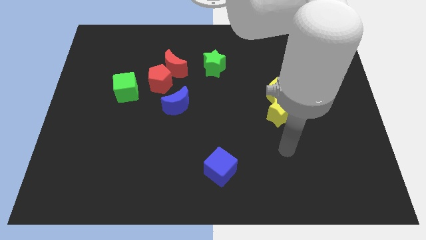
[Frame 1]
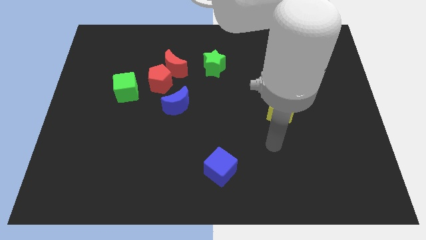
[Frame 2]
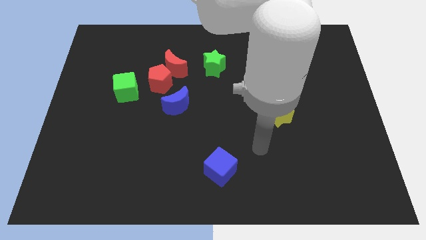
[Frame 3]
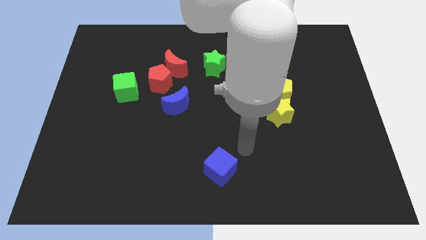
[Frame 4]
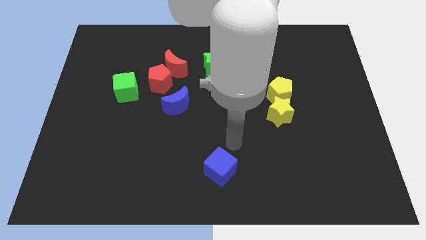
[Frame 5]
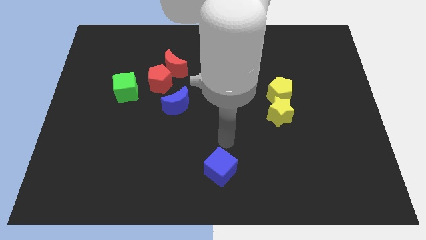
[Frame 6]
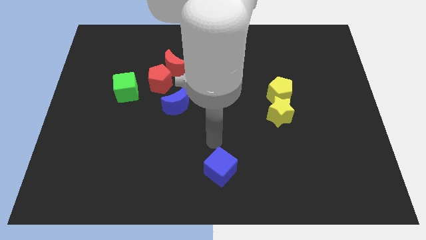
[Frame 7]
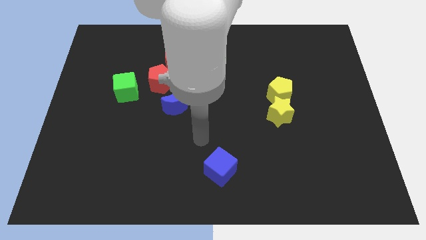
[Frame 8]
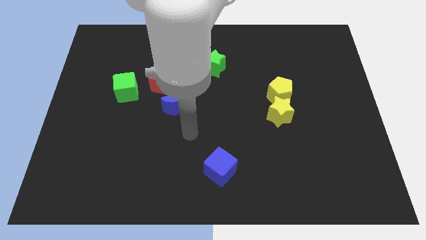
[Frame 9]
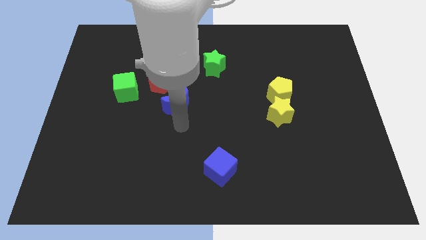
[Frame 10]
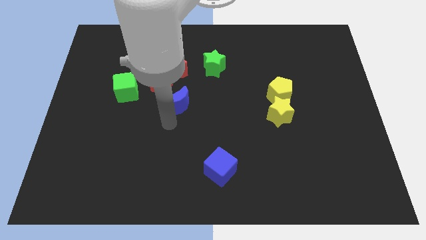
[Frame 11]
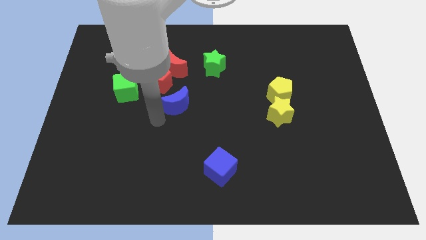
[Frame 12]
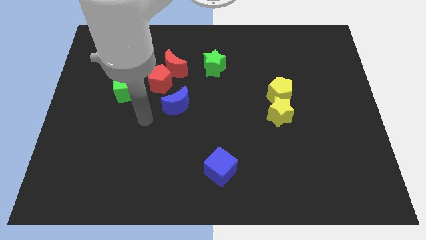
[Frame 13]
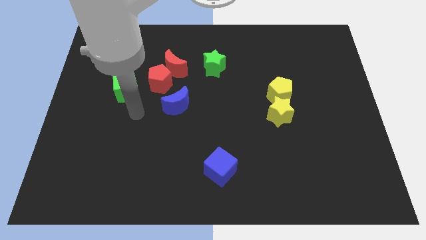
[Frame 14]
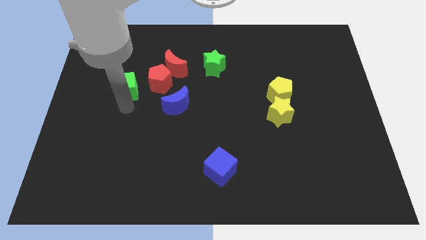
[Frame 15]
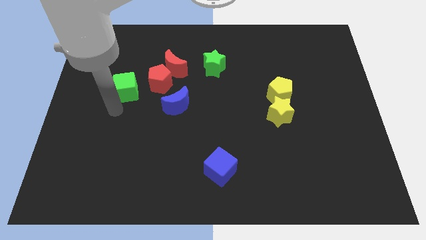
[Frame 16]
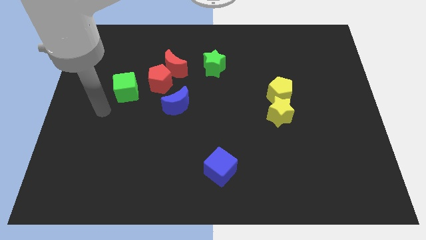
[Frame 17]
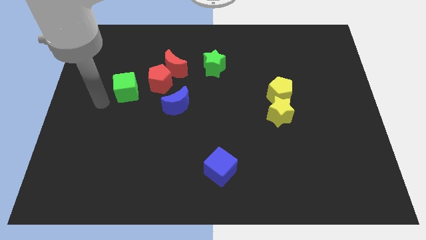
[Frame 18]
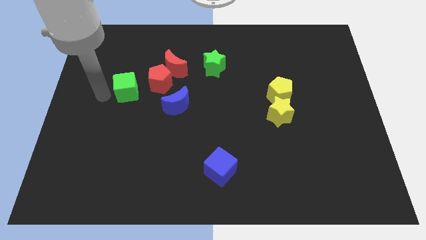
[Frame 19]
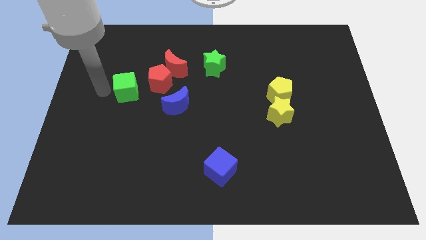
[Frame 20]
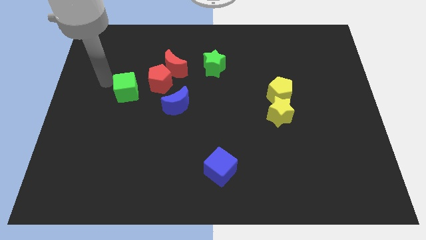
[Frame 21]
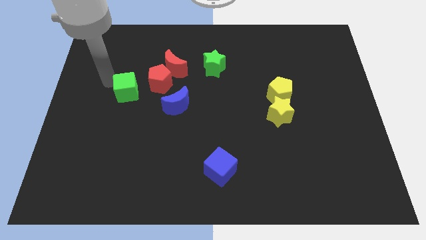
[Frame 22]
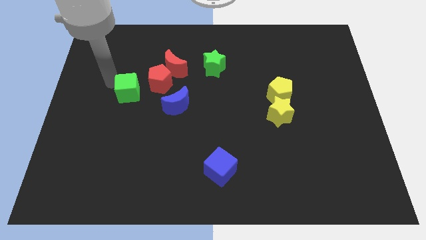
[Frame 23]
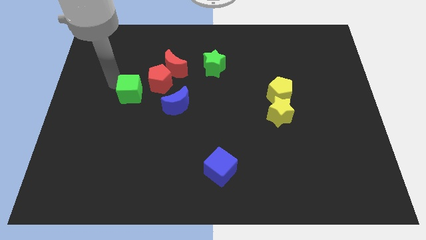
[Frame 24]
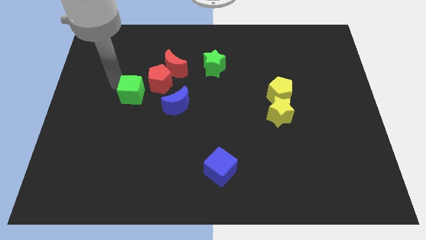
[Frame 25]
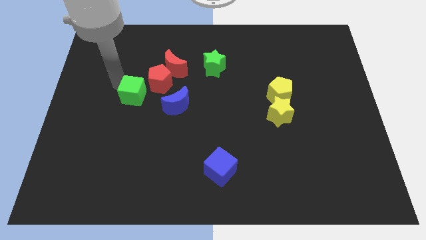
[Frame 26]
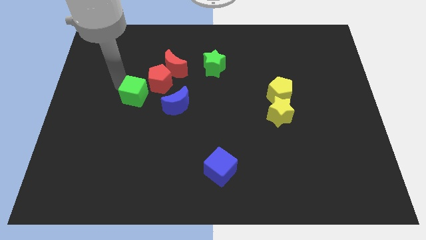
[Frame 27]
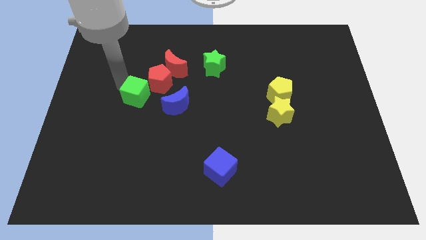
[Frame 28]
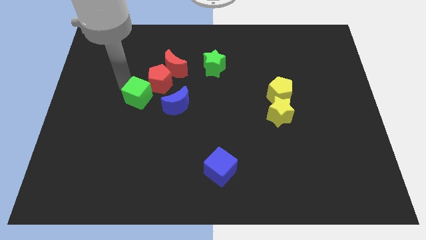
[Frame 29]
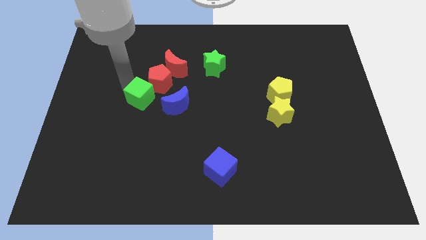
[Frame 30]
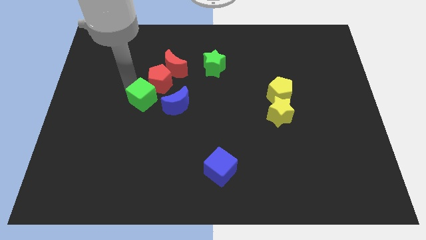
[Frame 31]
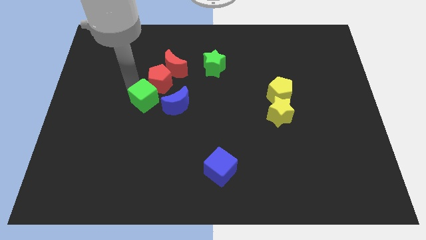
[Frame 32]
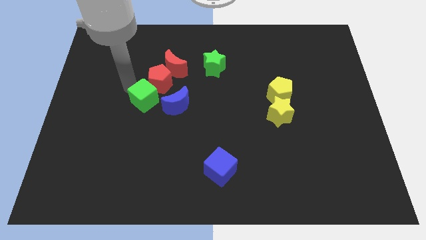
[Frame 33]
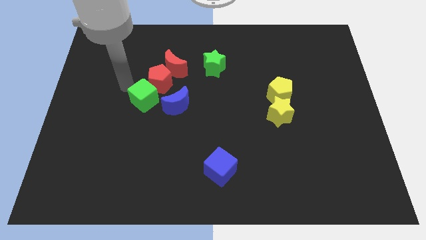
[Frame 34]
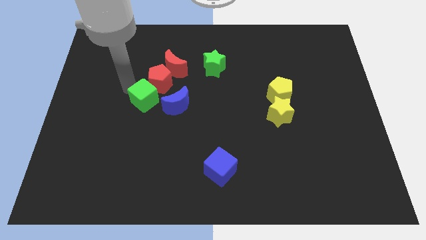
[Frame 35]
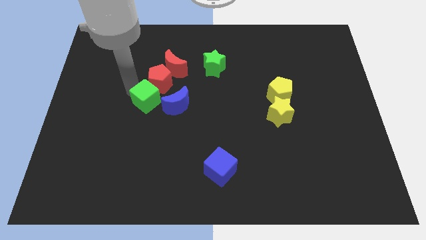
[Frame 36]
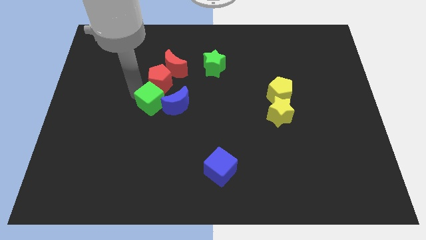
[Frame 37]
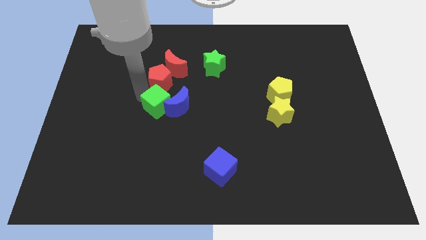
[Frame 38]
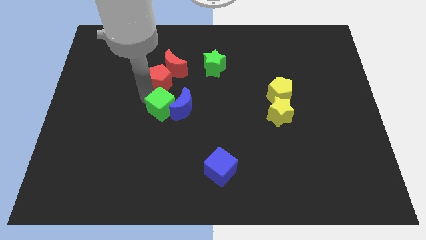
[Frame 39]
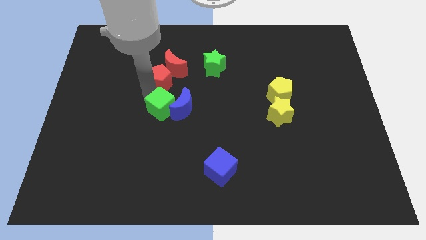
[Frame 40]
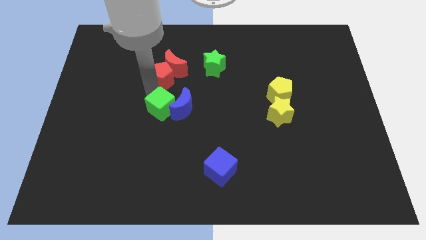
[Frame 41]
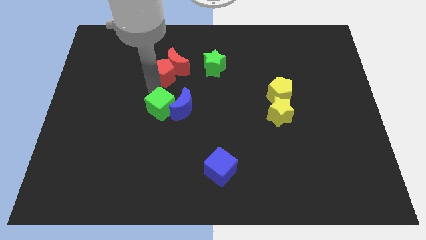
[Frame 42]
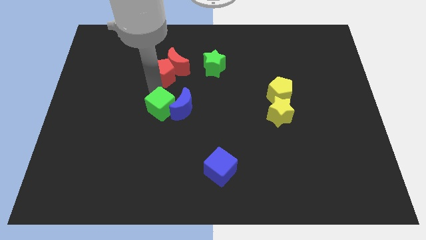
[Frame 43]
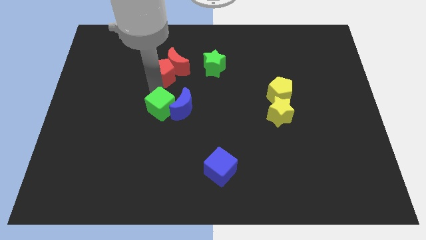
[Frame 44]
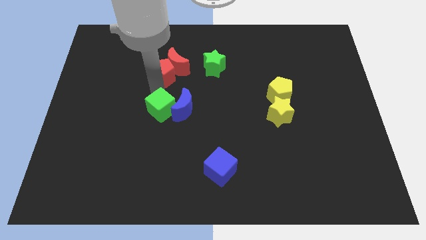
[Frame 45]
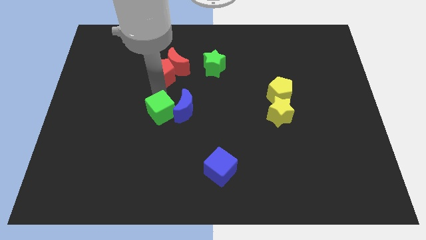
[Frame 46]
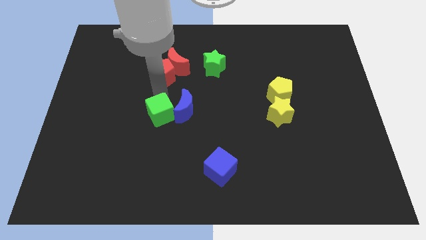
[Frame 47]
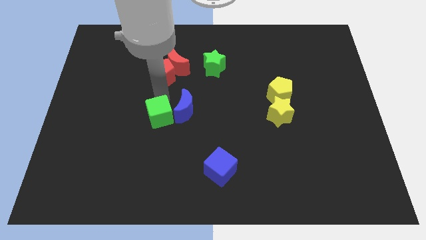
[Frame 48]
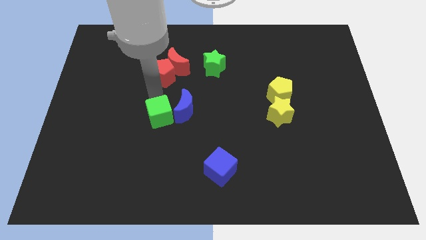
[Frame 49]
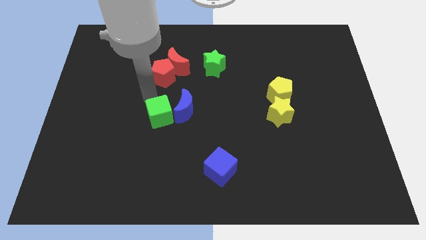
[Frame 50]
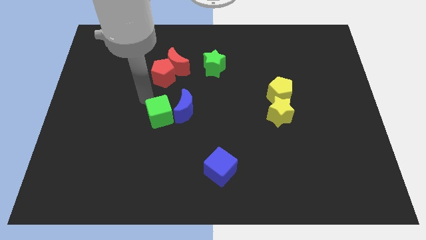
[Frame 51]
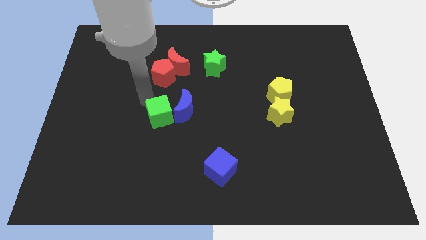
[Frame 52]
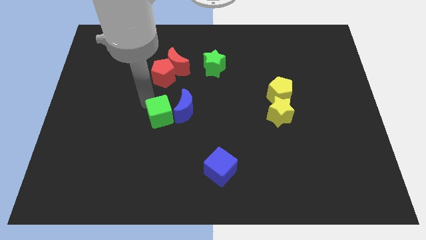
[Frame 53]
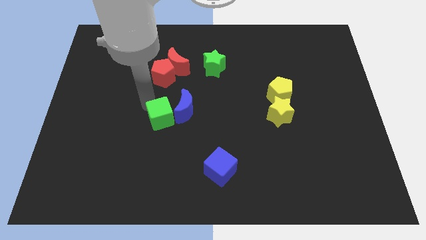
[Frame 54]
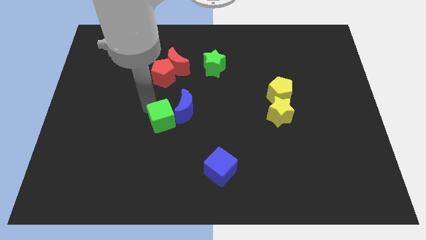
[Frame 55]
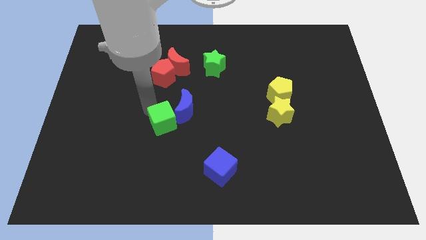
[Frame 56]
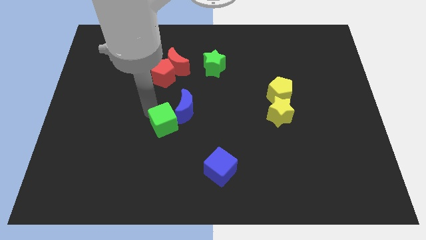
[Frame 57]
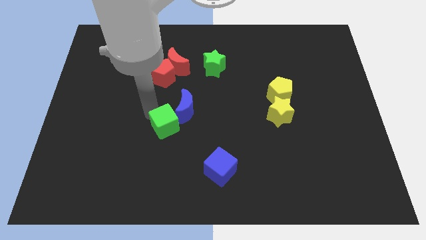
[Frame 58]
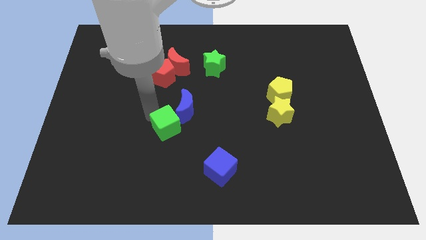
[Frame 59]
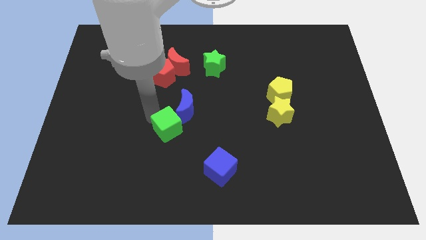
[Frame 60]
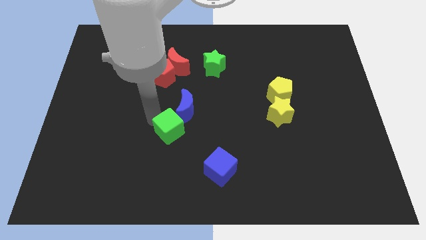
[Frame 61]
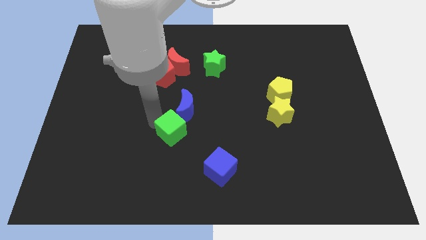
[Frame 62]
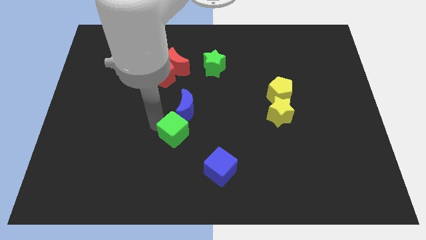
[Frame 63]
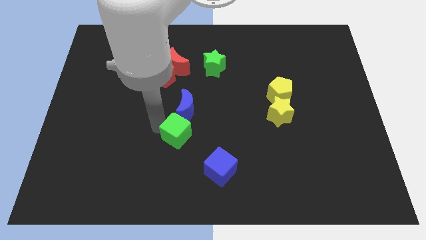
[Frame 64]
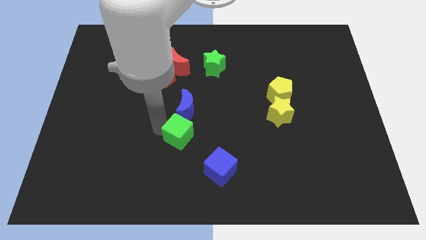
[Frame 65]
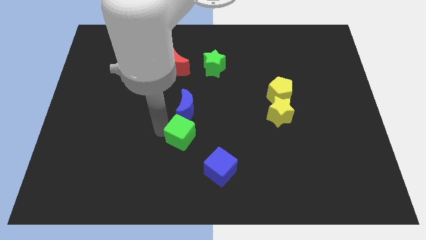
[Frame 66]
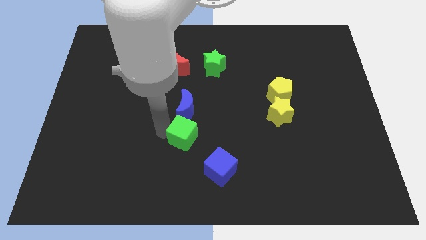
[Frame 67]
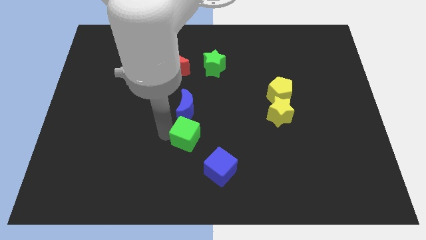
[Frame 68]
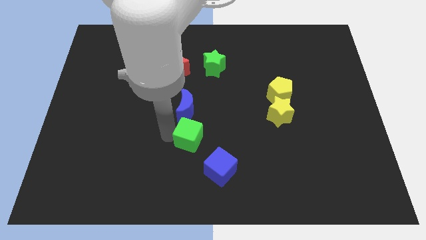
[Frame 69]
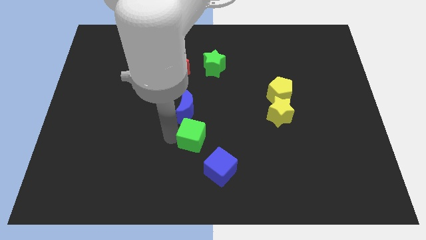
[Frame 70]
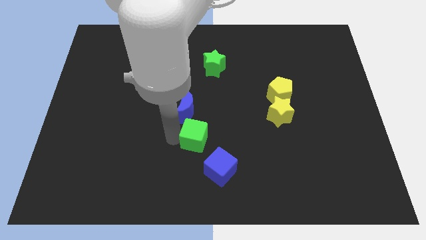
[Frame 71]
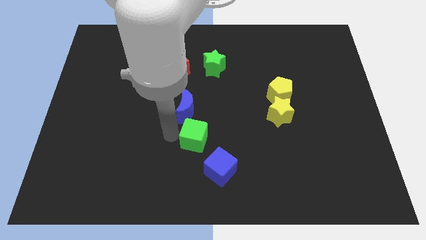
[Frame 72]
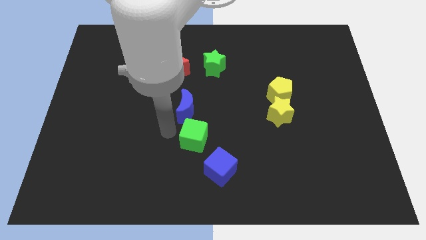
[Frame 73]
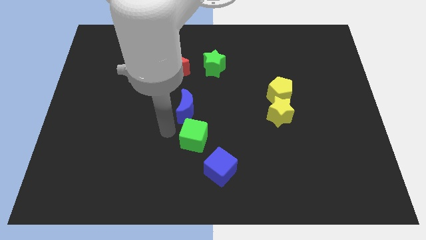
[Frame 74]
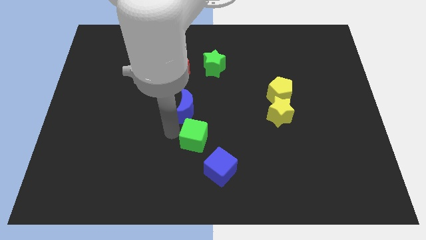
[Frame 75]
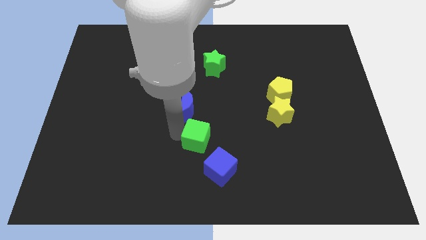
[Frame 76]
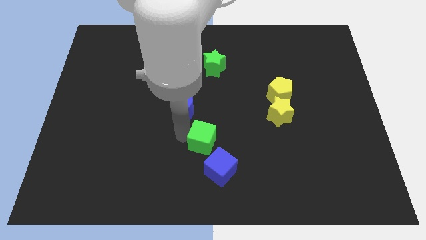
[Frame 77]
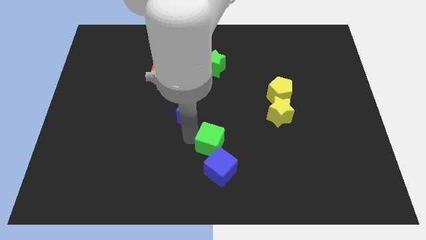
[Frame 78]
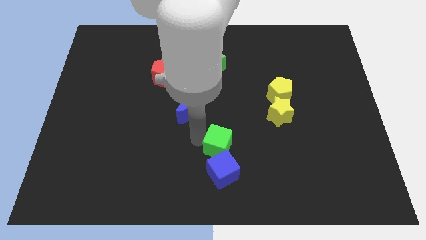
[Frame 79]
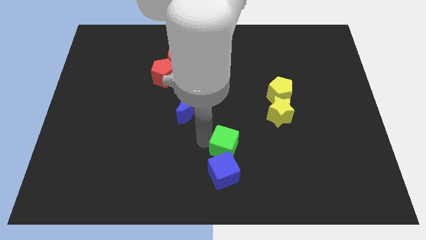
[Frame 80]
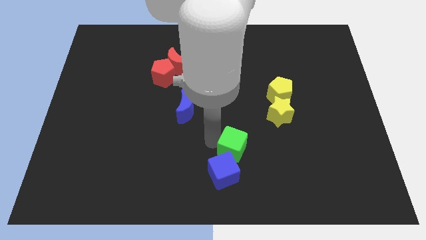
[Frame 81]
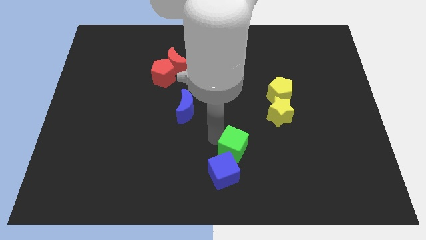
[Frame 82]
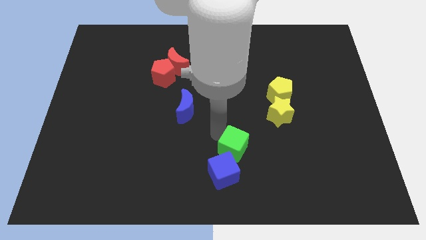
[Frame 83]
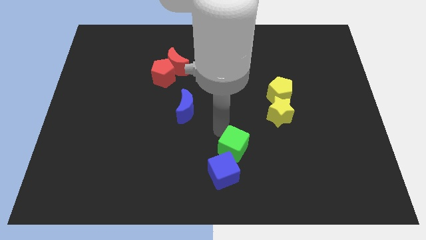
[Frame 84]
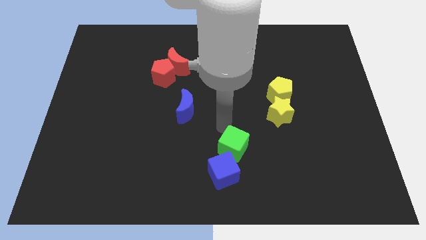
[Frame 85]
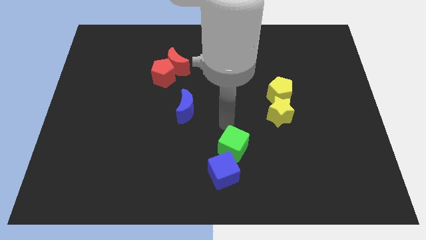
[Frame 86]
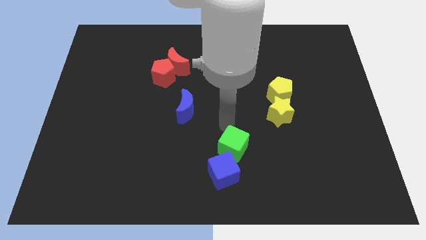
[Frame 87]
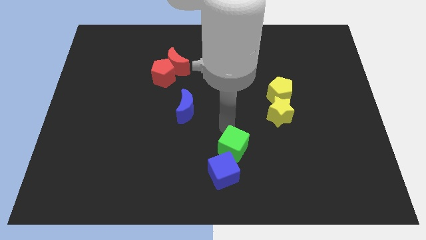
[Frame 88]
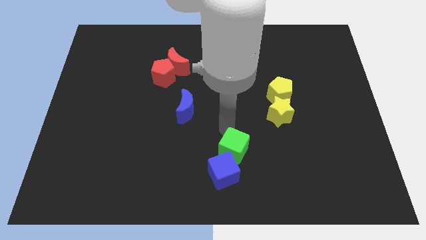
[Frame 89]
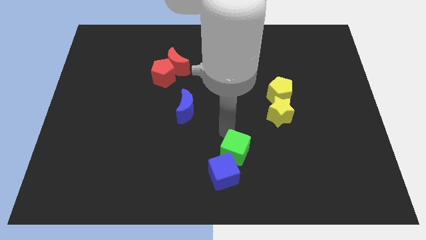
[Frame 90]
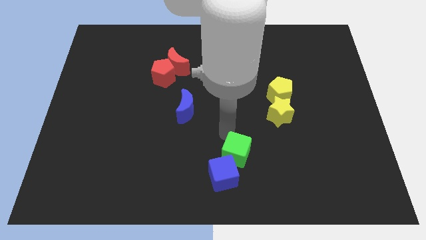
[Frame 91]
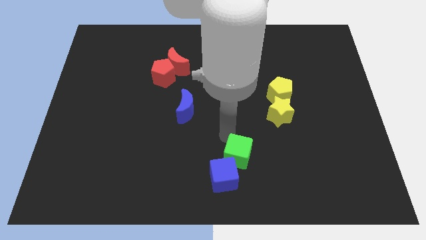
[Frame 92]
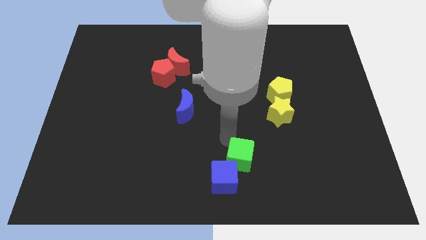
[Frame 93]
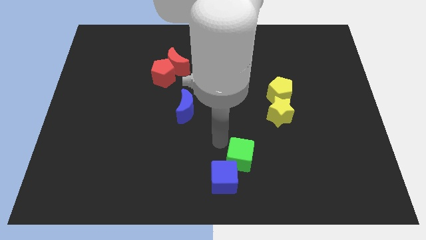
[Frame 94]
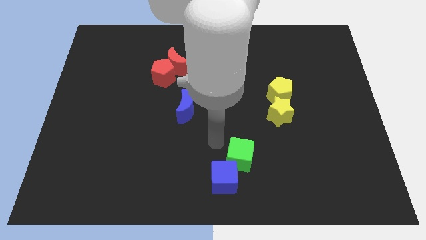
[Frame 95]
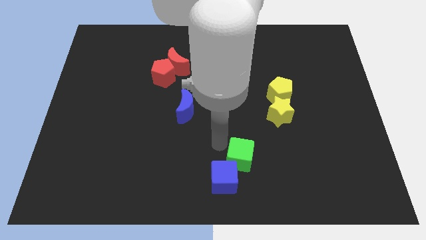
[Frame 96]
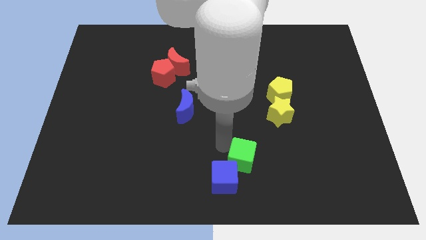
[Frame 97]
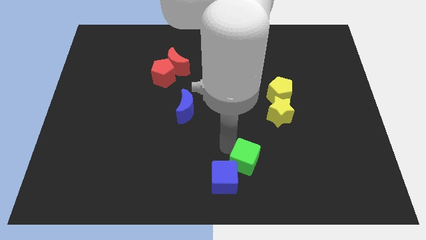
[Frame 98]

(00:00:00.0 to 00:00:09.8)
push the green cube to the right of the blue cube
